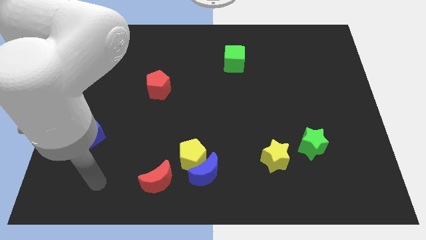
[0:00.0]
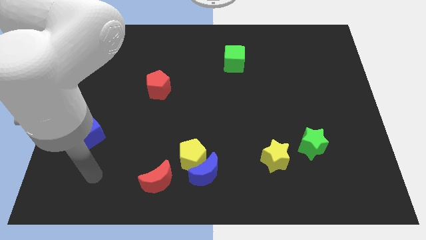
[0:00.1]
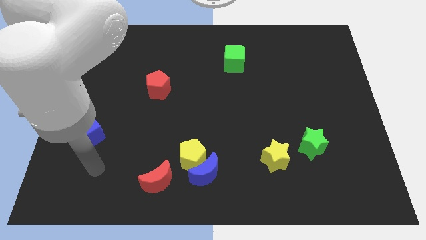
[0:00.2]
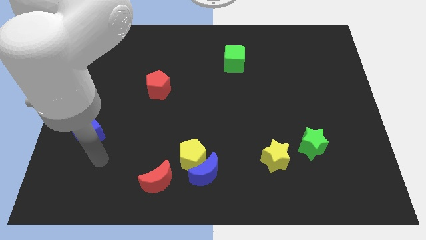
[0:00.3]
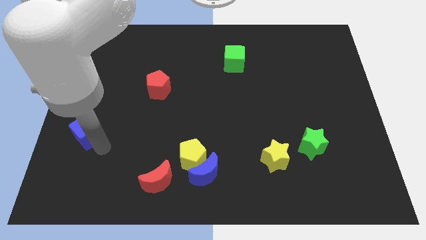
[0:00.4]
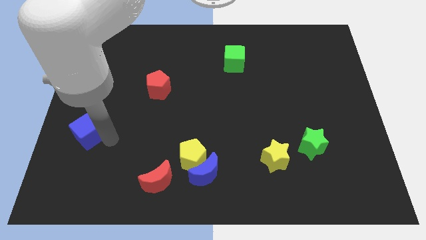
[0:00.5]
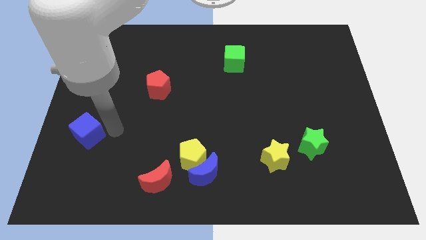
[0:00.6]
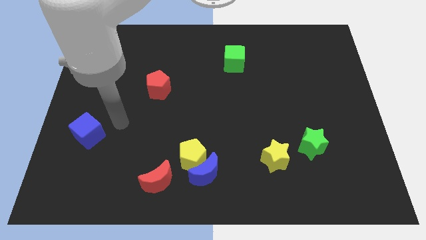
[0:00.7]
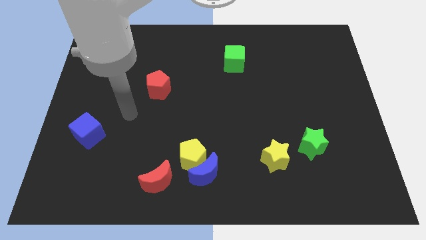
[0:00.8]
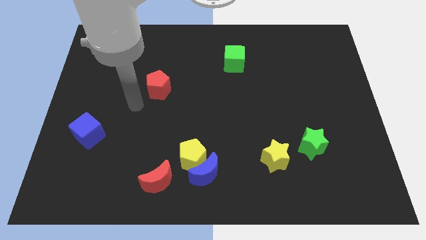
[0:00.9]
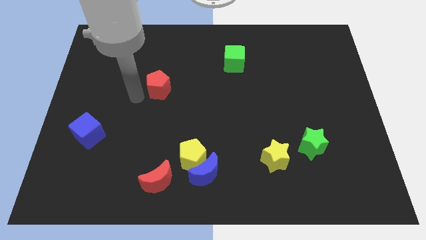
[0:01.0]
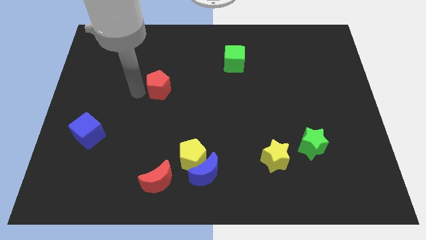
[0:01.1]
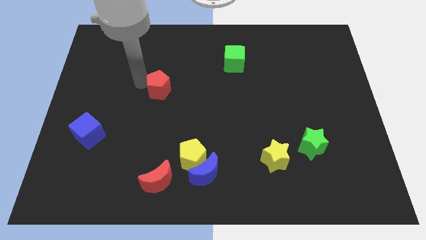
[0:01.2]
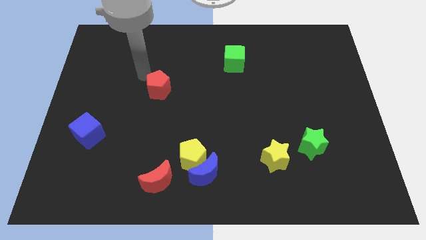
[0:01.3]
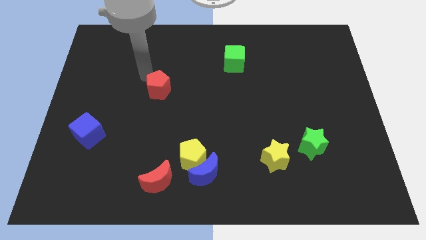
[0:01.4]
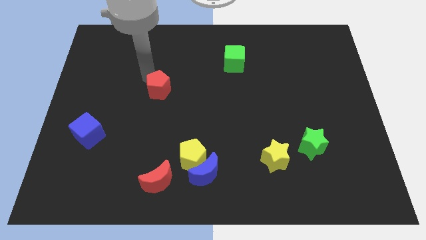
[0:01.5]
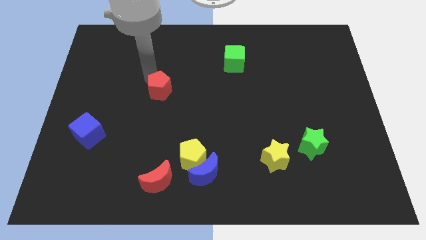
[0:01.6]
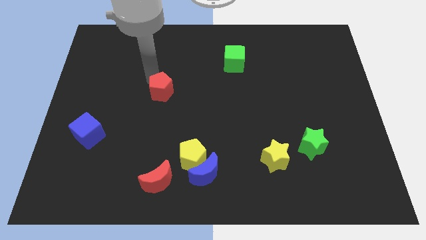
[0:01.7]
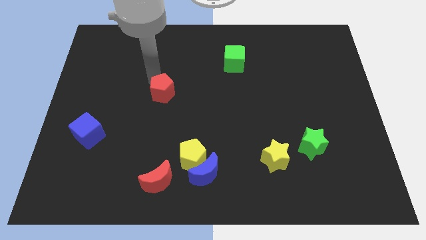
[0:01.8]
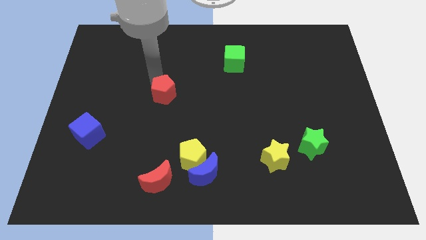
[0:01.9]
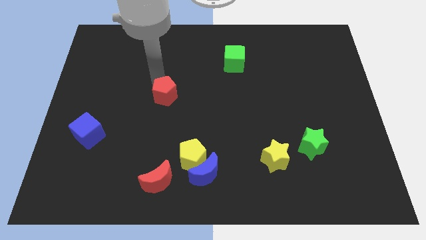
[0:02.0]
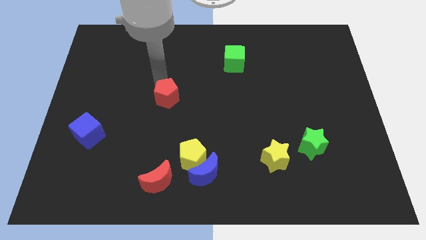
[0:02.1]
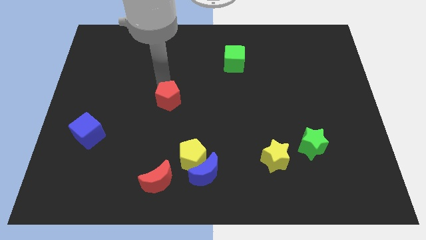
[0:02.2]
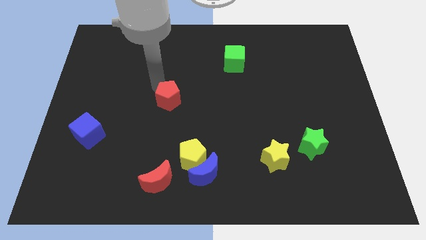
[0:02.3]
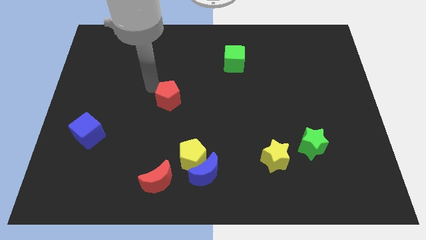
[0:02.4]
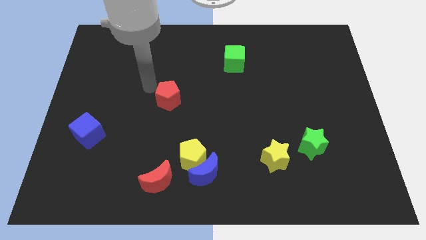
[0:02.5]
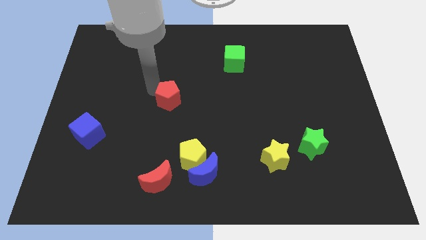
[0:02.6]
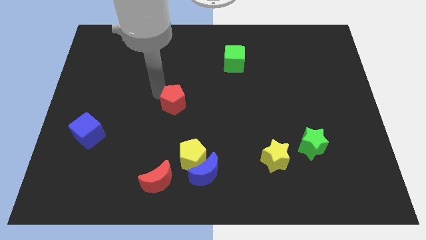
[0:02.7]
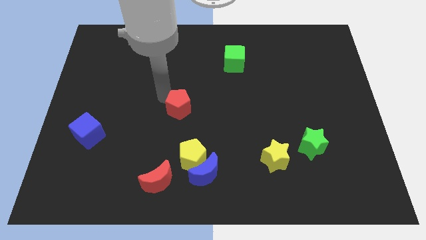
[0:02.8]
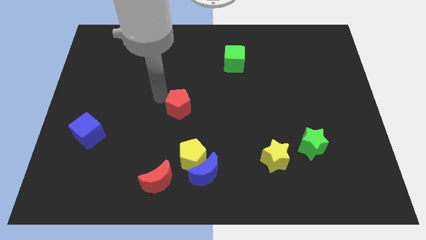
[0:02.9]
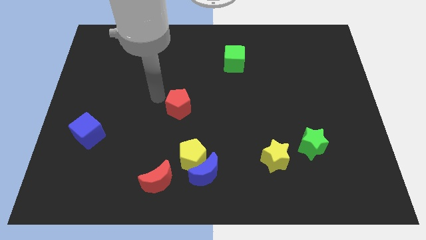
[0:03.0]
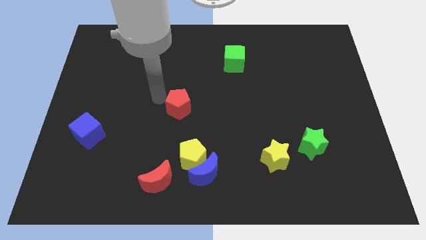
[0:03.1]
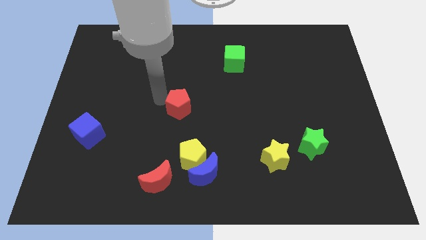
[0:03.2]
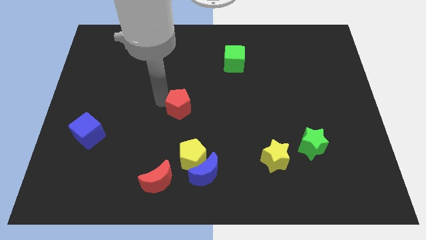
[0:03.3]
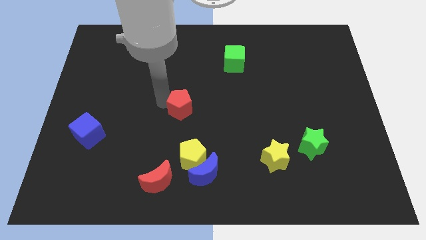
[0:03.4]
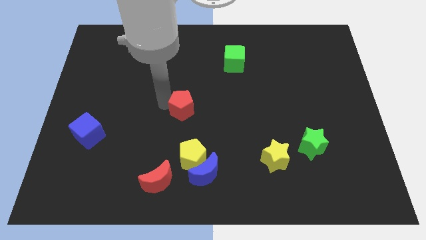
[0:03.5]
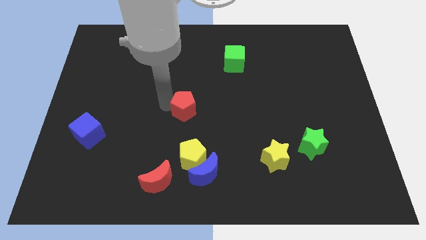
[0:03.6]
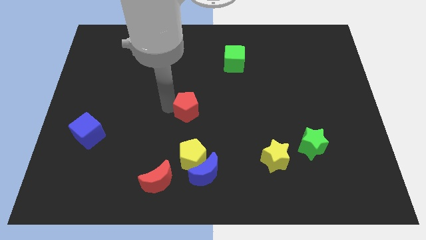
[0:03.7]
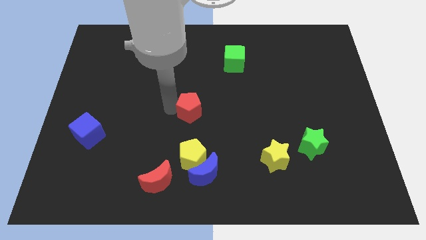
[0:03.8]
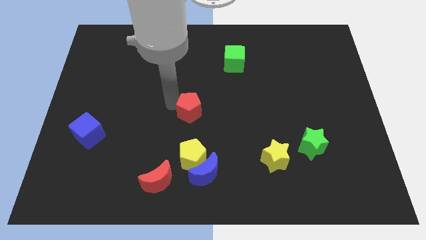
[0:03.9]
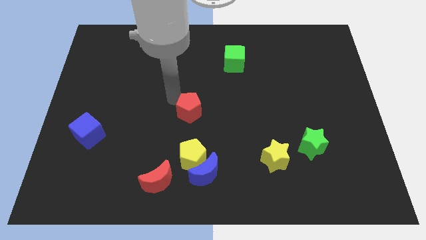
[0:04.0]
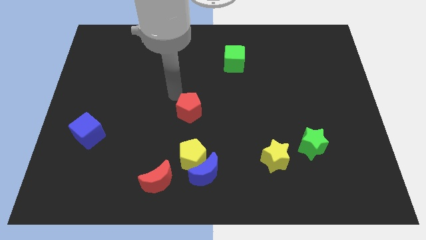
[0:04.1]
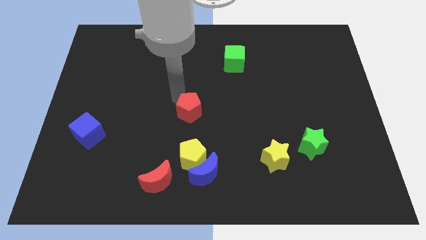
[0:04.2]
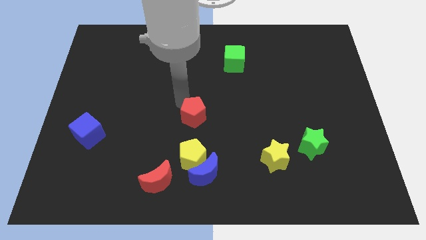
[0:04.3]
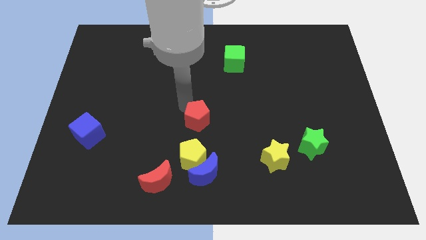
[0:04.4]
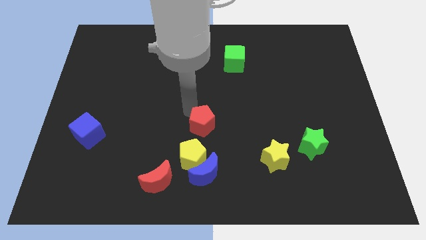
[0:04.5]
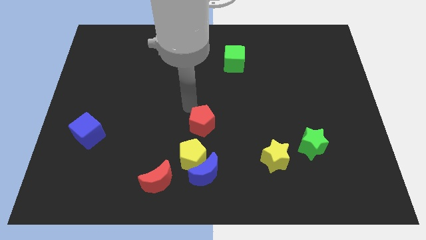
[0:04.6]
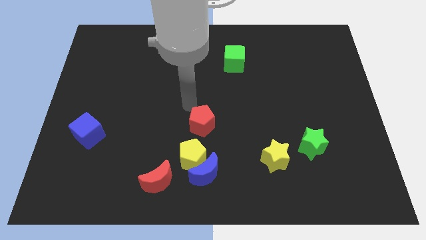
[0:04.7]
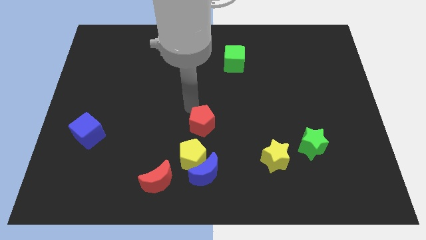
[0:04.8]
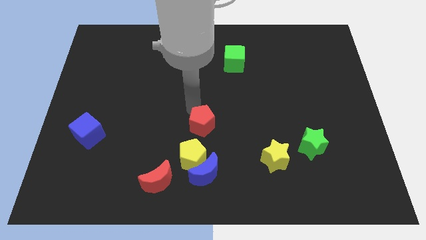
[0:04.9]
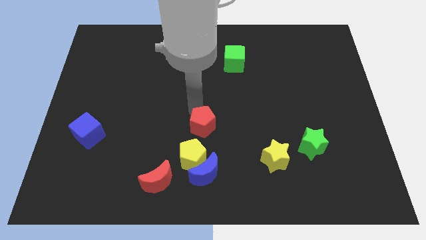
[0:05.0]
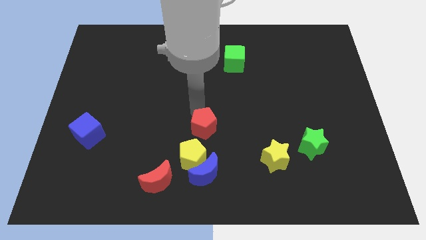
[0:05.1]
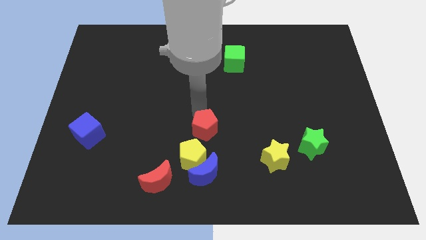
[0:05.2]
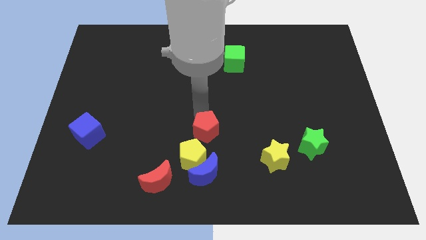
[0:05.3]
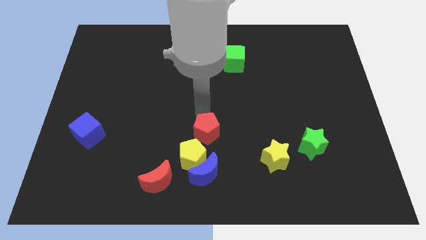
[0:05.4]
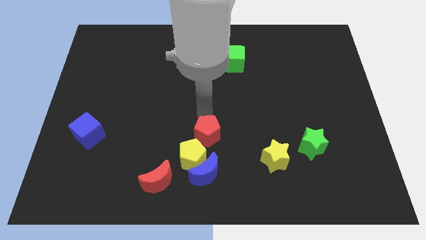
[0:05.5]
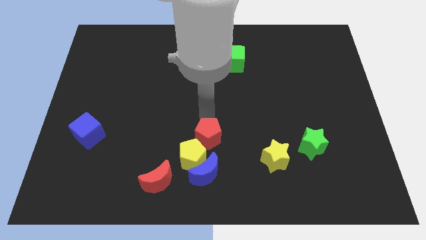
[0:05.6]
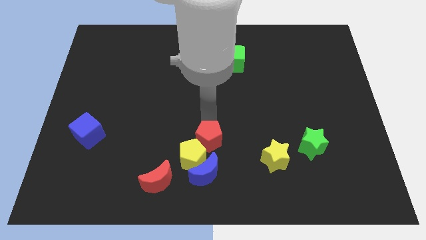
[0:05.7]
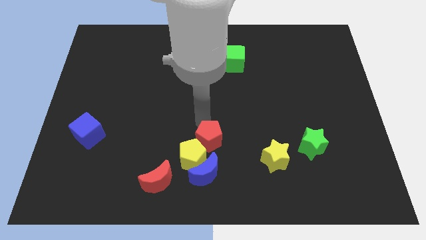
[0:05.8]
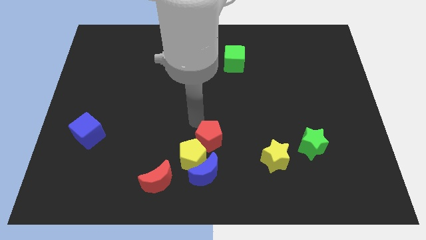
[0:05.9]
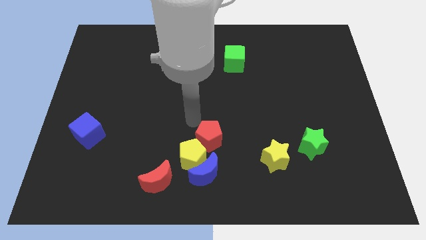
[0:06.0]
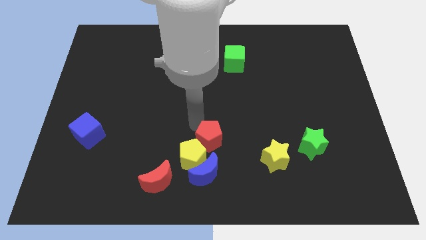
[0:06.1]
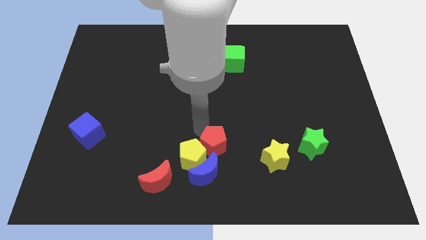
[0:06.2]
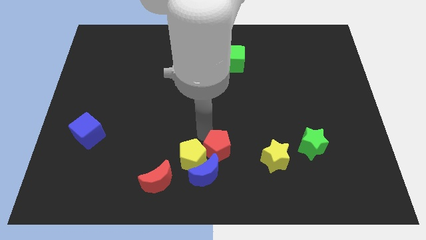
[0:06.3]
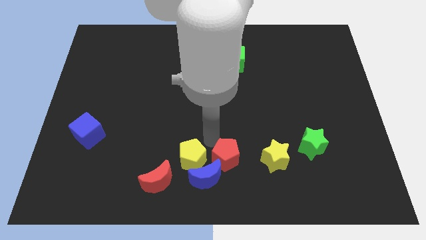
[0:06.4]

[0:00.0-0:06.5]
put the red pentagon to the bottom side
